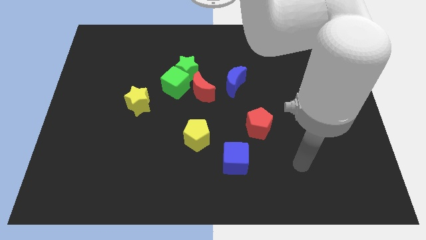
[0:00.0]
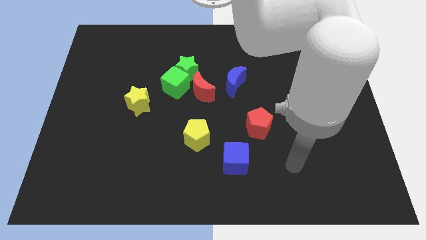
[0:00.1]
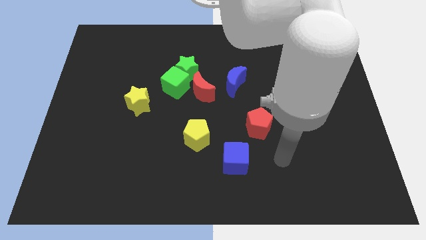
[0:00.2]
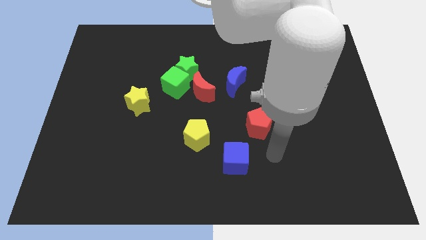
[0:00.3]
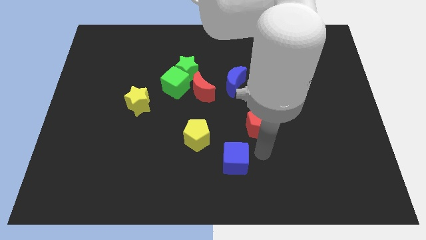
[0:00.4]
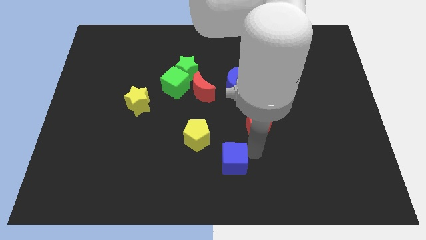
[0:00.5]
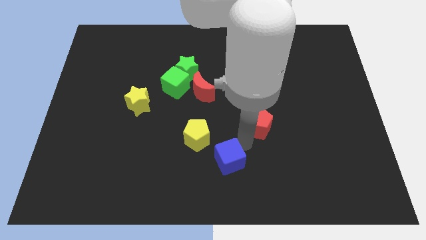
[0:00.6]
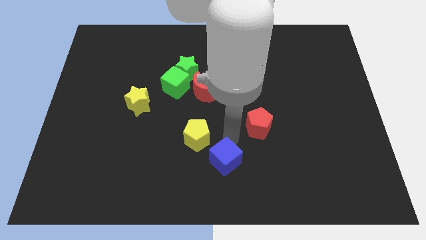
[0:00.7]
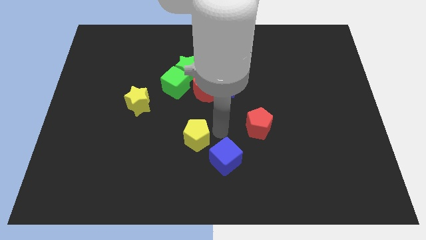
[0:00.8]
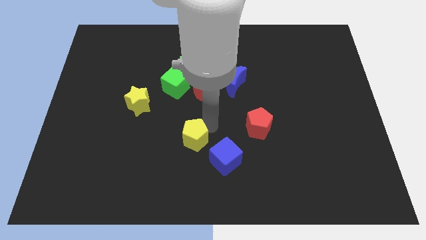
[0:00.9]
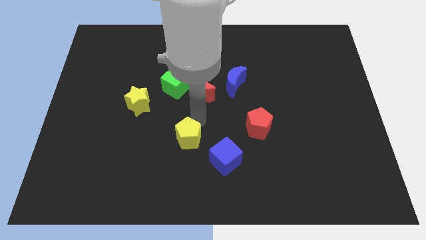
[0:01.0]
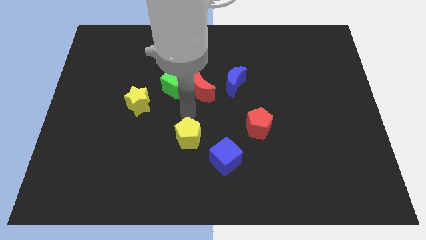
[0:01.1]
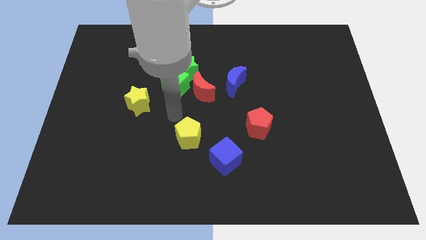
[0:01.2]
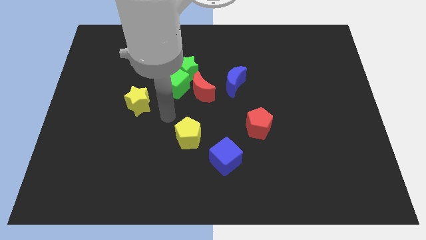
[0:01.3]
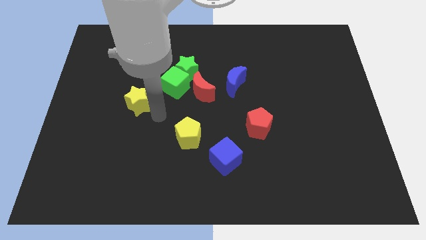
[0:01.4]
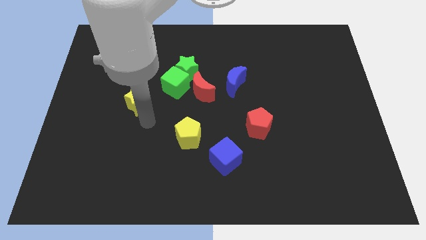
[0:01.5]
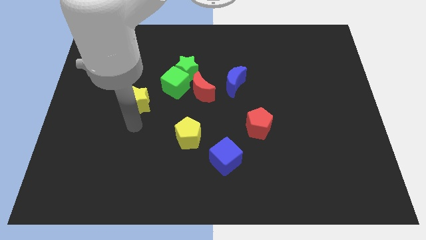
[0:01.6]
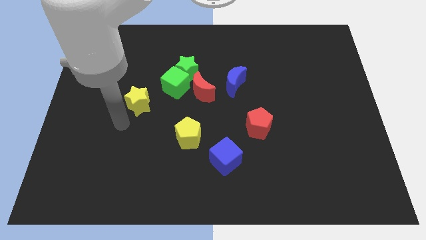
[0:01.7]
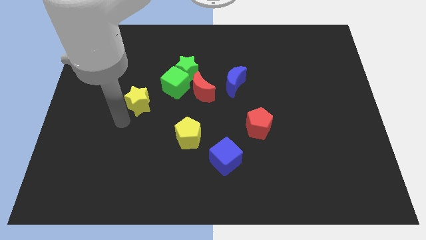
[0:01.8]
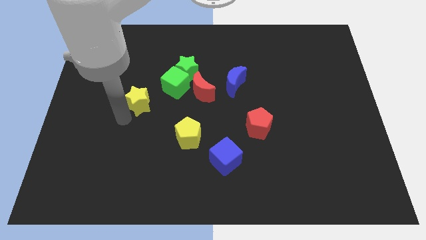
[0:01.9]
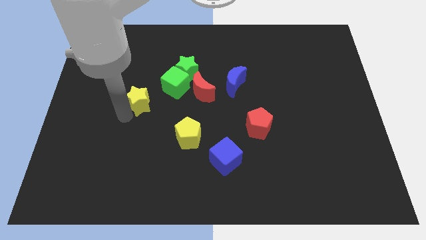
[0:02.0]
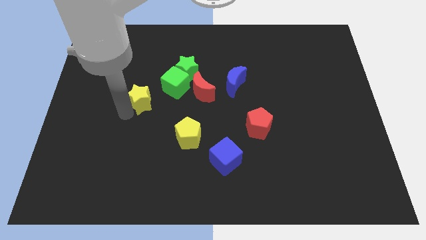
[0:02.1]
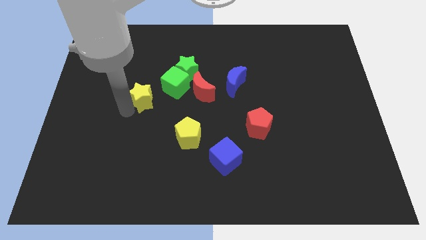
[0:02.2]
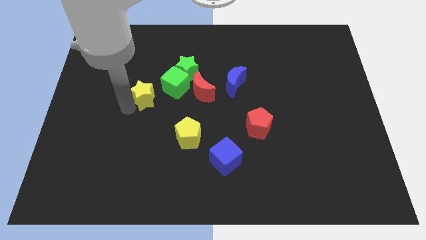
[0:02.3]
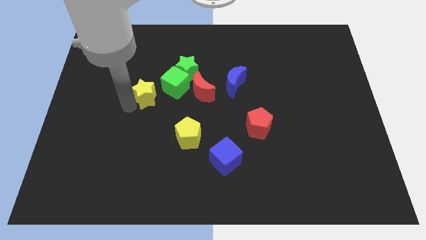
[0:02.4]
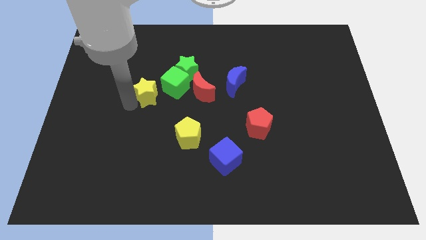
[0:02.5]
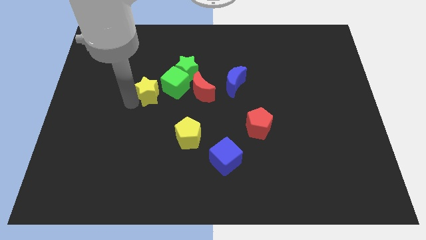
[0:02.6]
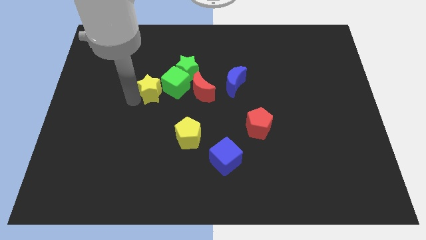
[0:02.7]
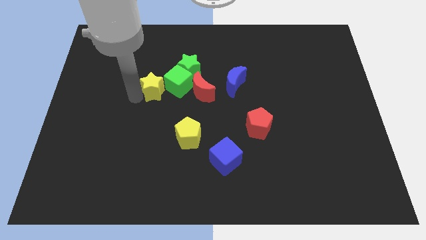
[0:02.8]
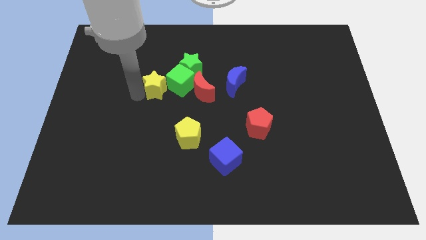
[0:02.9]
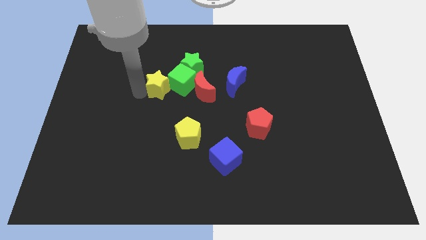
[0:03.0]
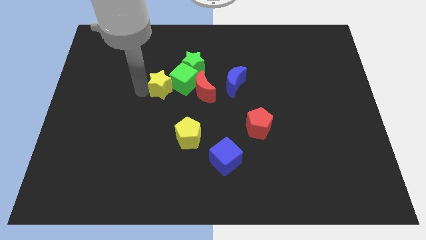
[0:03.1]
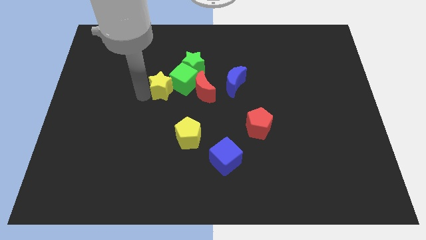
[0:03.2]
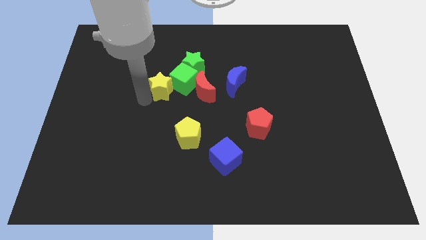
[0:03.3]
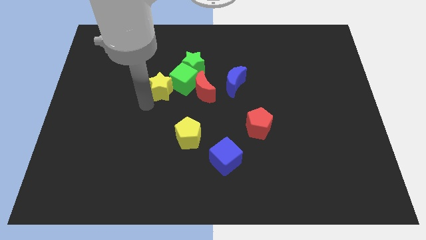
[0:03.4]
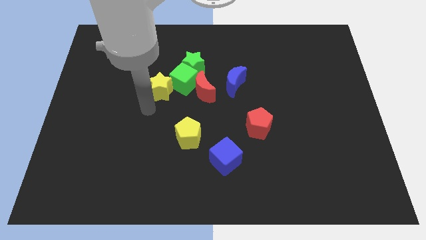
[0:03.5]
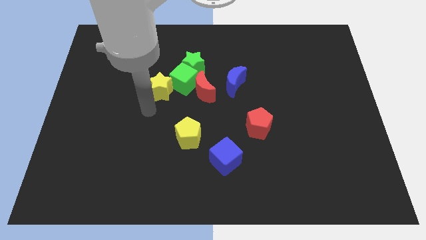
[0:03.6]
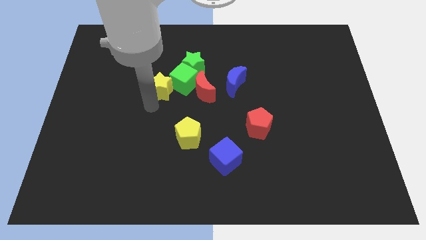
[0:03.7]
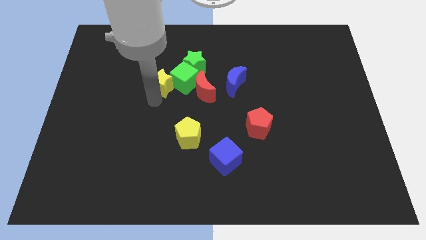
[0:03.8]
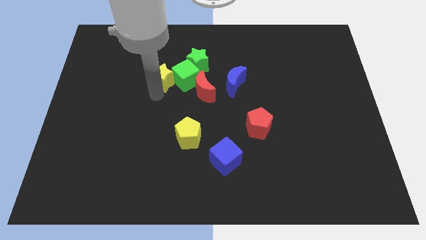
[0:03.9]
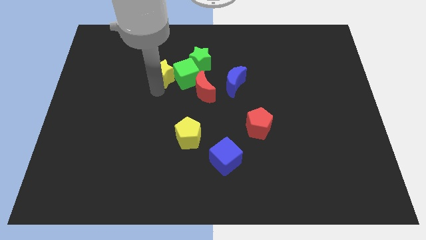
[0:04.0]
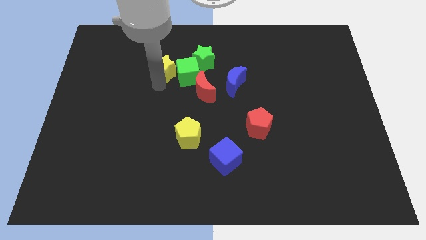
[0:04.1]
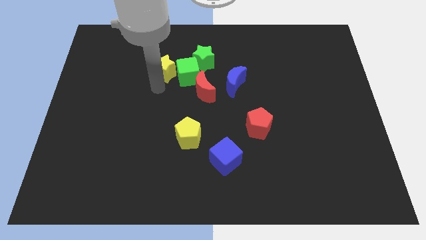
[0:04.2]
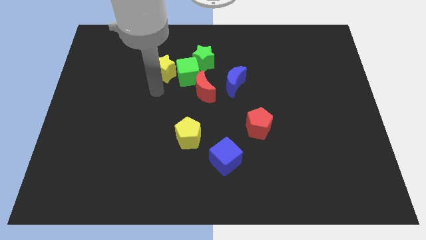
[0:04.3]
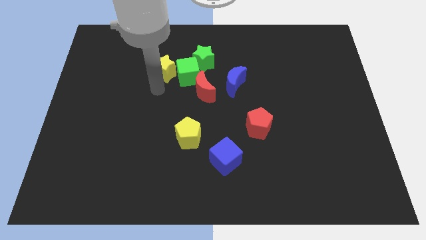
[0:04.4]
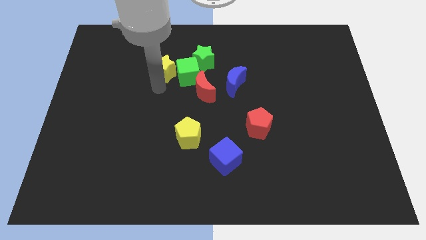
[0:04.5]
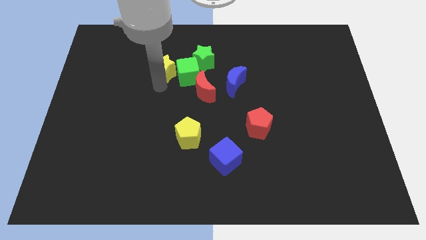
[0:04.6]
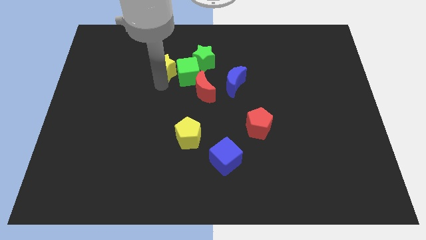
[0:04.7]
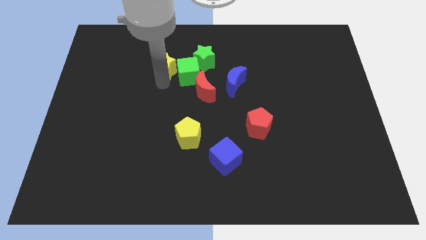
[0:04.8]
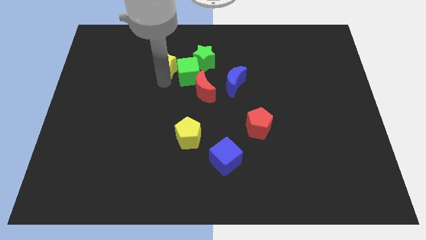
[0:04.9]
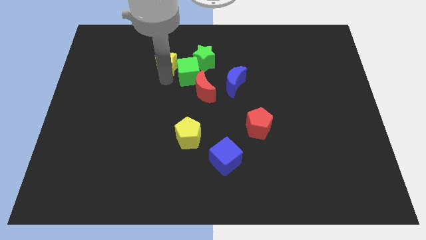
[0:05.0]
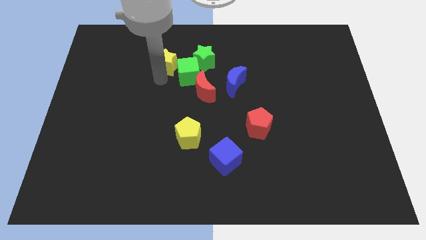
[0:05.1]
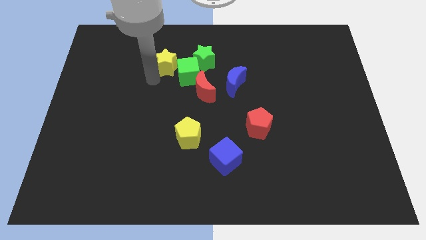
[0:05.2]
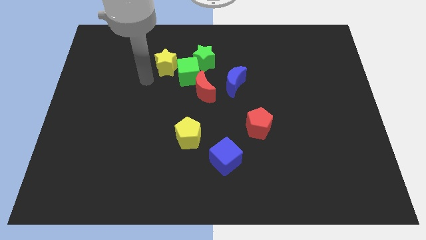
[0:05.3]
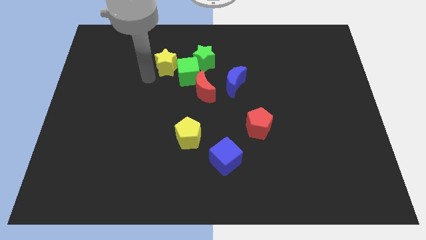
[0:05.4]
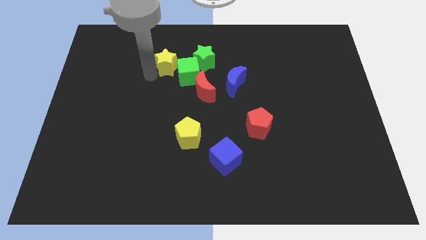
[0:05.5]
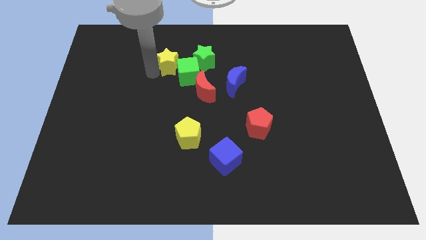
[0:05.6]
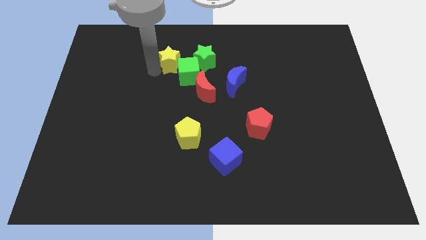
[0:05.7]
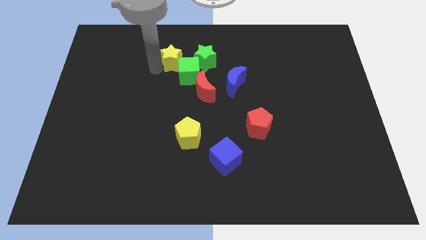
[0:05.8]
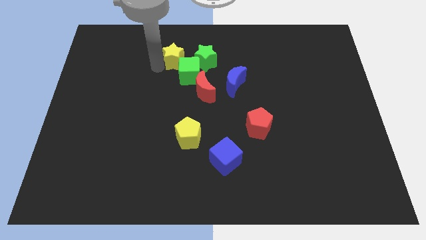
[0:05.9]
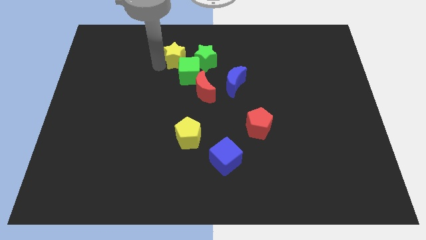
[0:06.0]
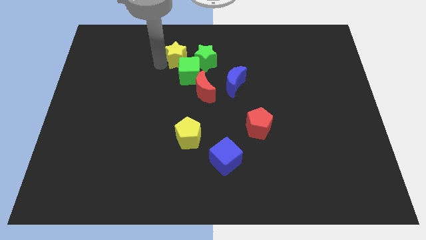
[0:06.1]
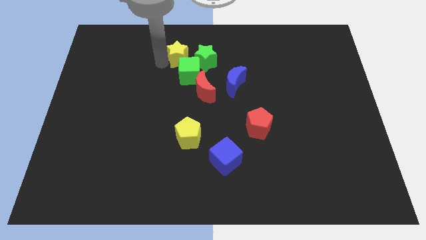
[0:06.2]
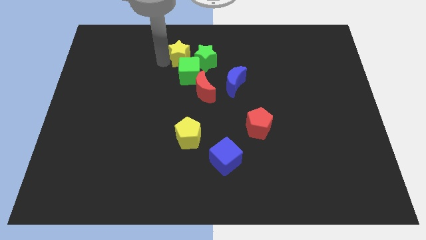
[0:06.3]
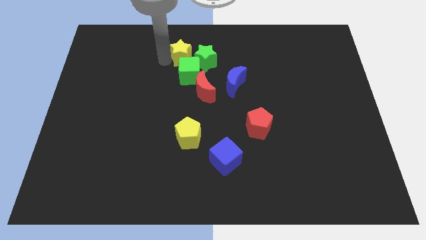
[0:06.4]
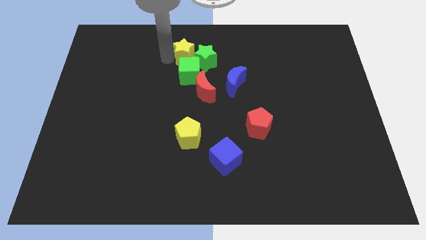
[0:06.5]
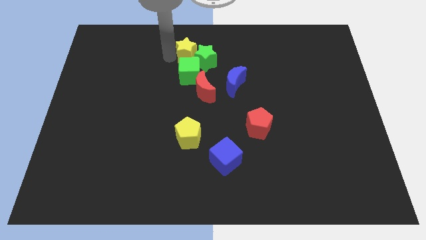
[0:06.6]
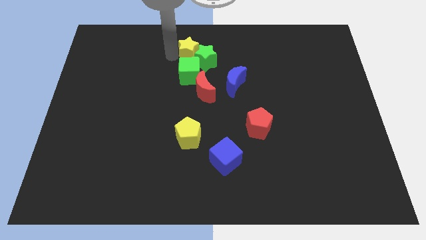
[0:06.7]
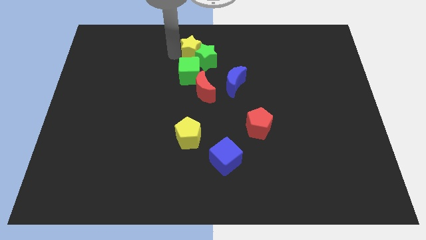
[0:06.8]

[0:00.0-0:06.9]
slide the yellow star to the top
